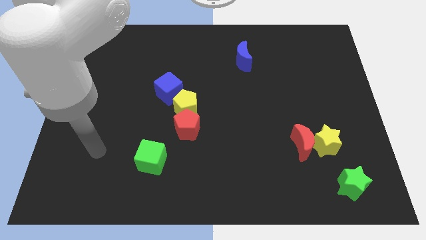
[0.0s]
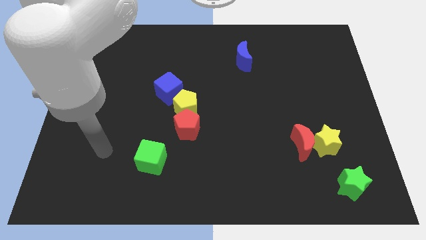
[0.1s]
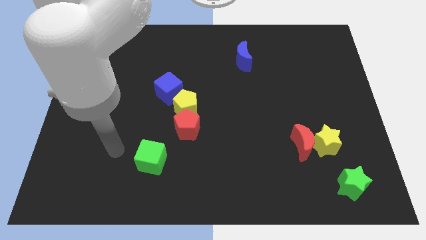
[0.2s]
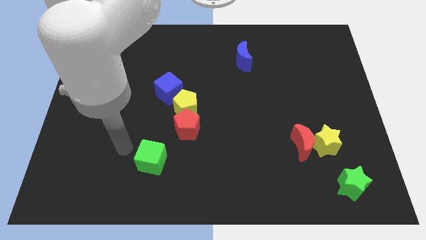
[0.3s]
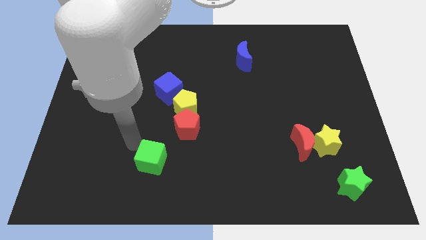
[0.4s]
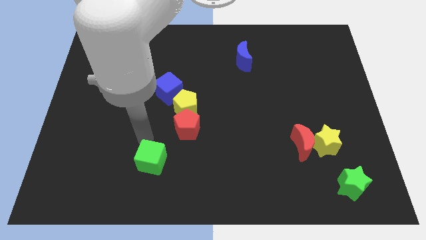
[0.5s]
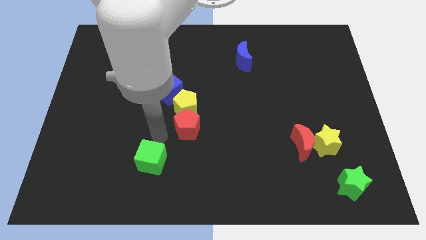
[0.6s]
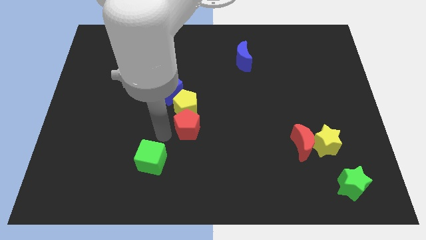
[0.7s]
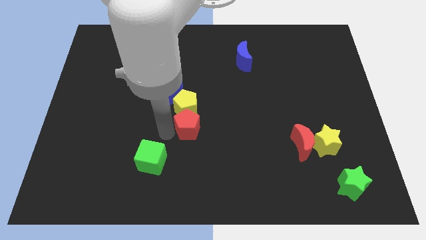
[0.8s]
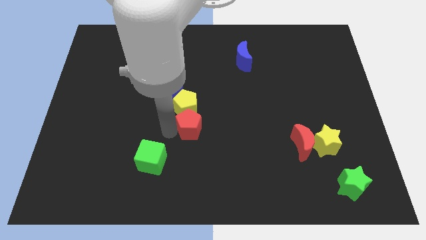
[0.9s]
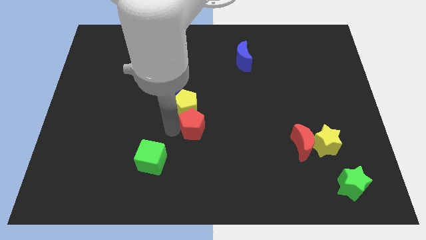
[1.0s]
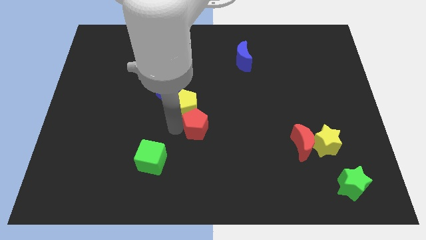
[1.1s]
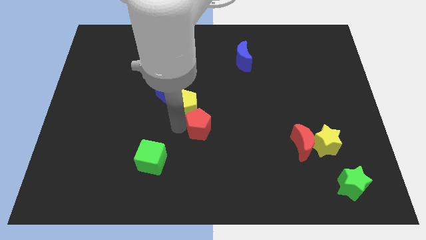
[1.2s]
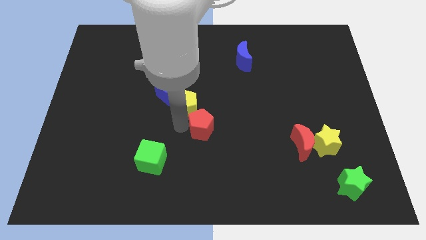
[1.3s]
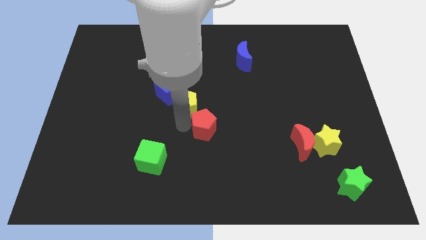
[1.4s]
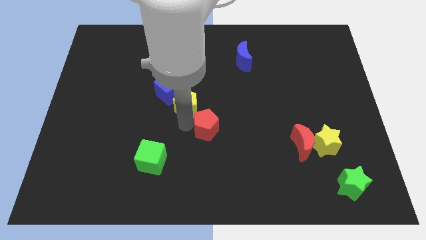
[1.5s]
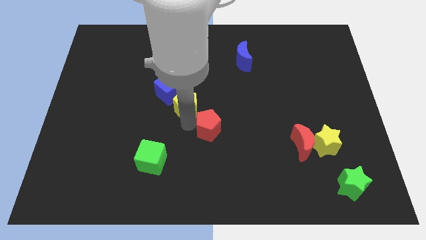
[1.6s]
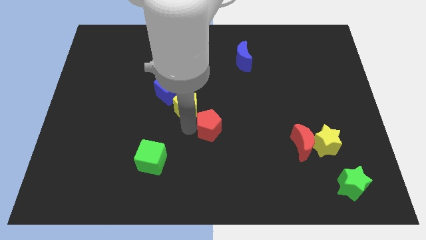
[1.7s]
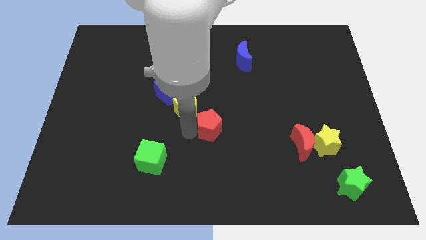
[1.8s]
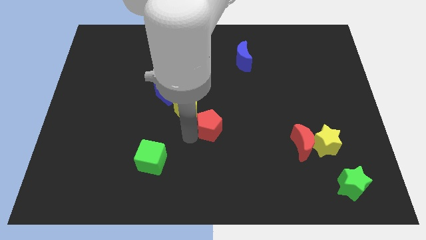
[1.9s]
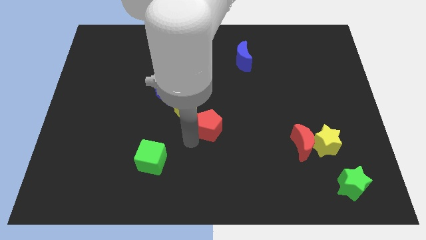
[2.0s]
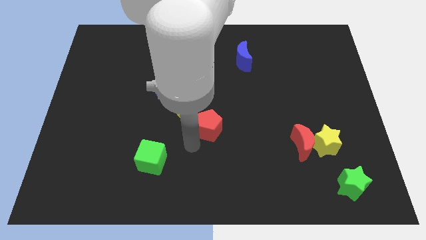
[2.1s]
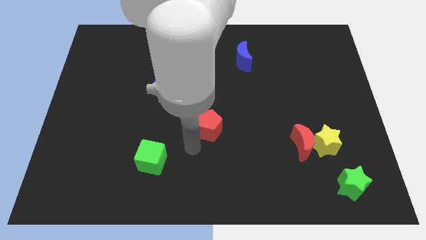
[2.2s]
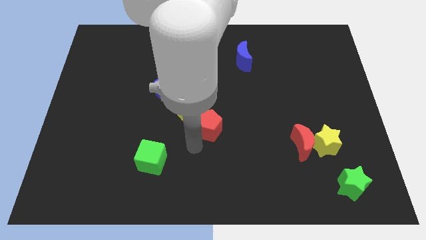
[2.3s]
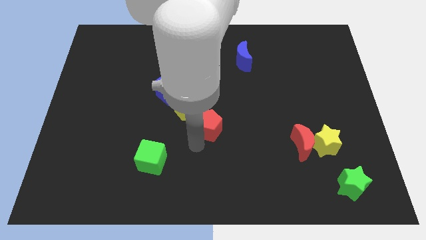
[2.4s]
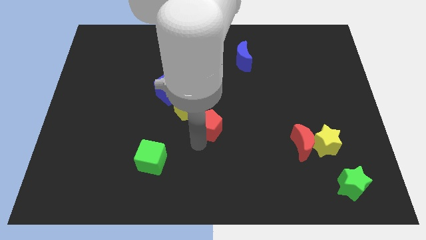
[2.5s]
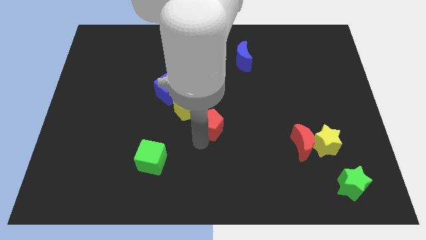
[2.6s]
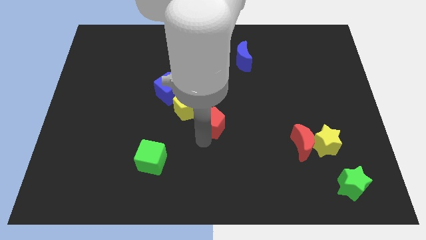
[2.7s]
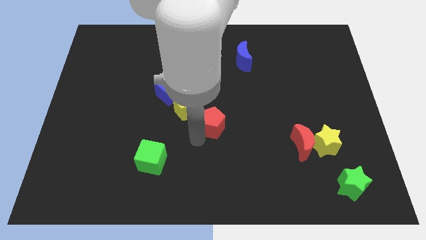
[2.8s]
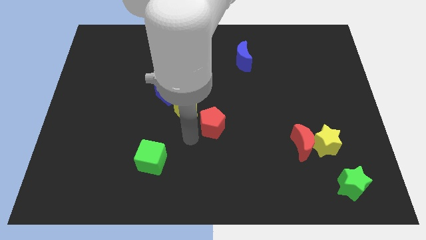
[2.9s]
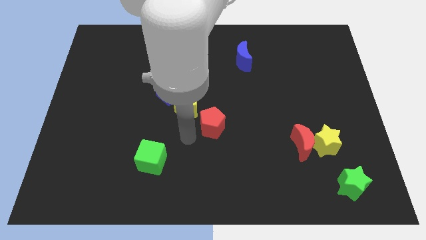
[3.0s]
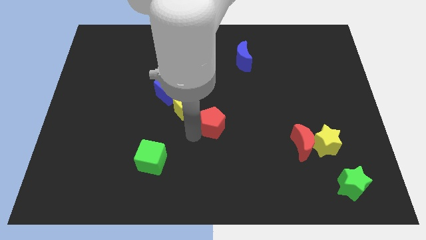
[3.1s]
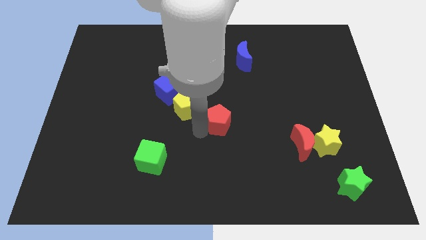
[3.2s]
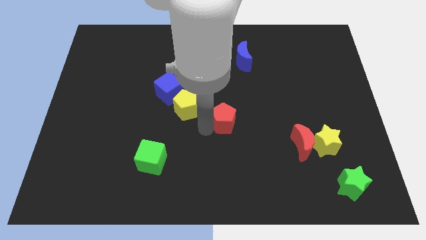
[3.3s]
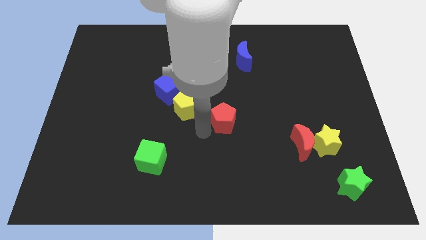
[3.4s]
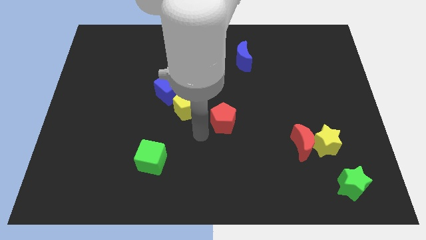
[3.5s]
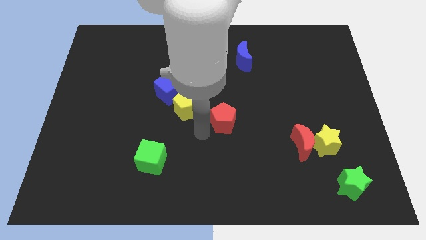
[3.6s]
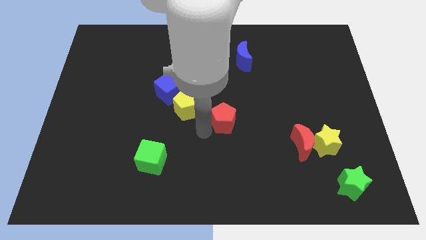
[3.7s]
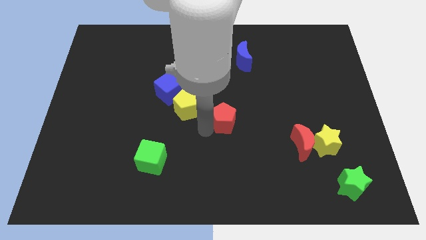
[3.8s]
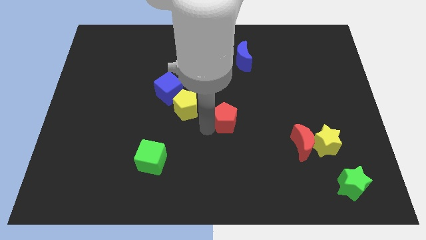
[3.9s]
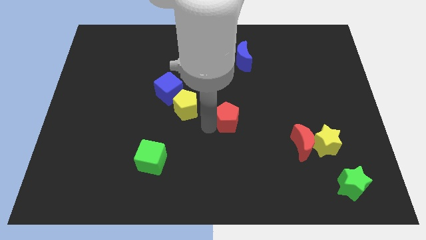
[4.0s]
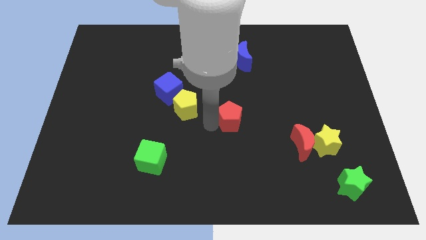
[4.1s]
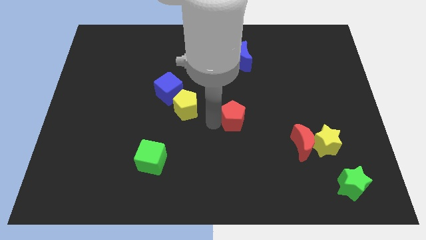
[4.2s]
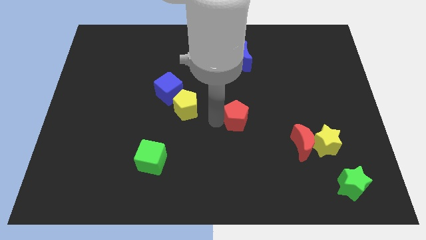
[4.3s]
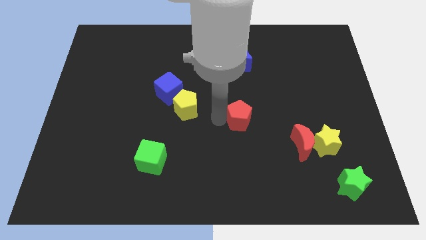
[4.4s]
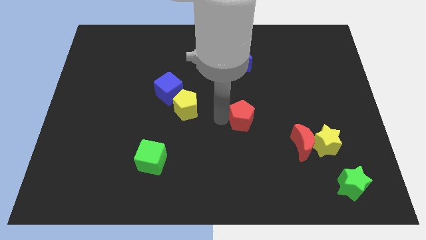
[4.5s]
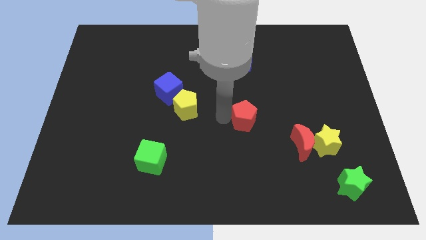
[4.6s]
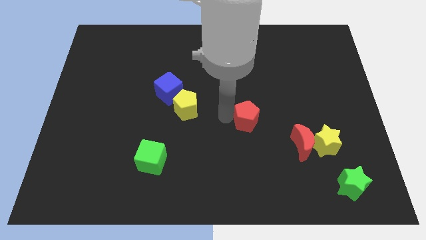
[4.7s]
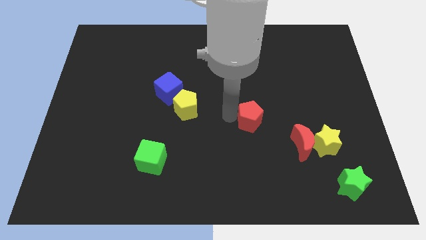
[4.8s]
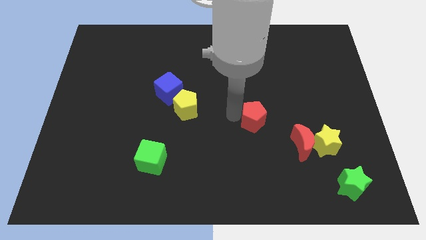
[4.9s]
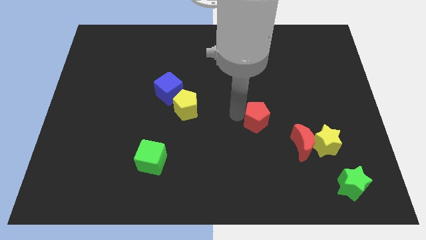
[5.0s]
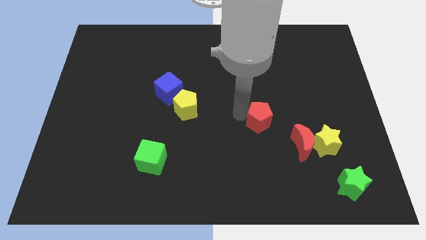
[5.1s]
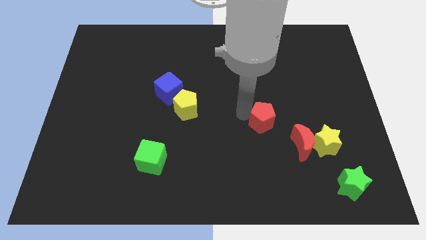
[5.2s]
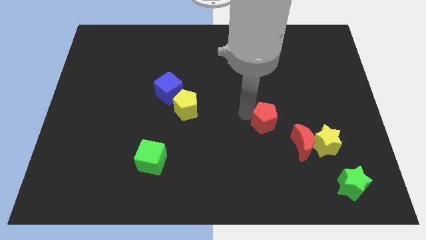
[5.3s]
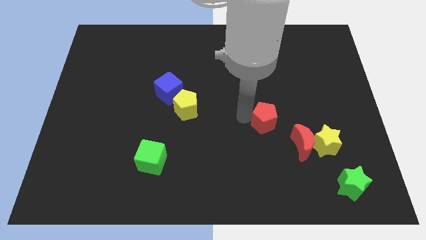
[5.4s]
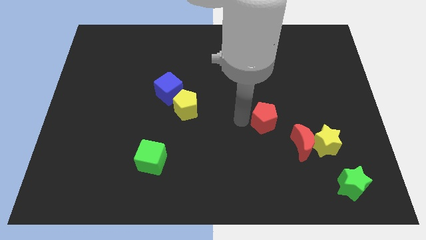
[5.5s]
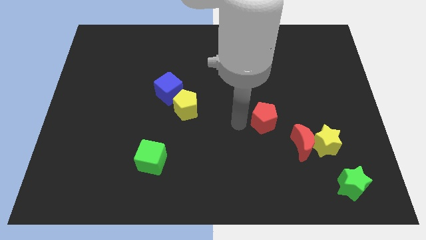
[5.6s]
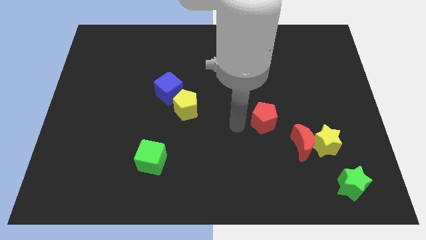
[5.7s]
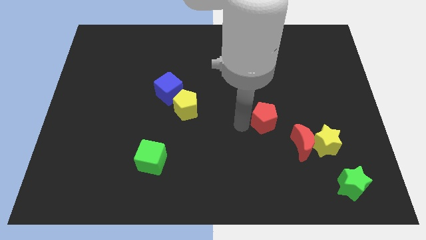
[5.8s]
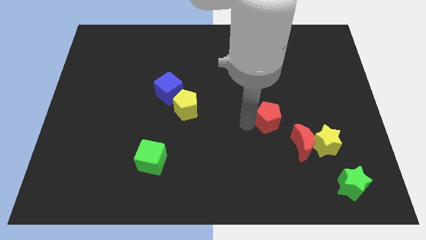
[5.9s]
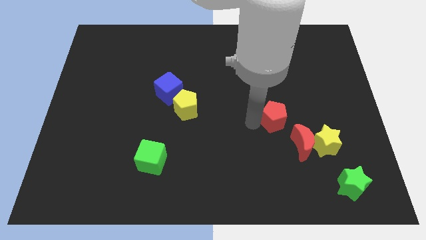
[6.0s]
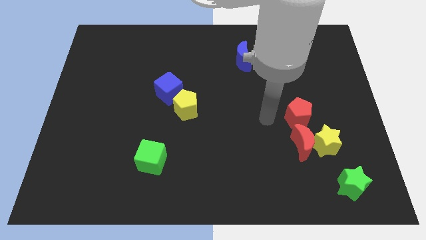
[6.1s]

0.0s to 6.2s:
slide the red pentagon to the right

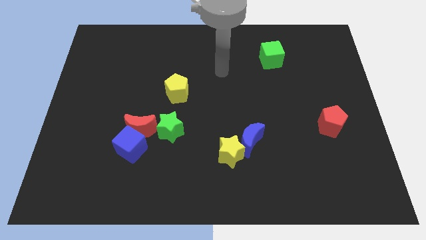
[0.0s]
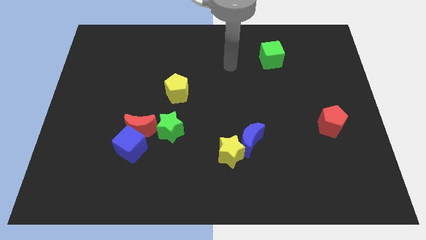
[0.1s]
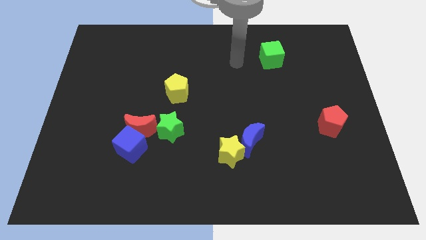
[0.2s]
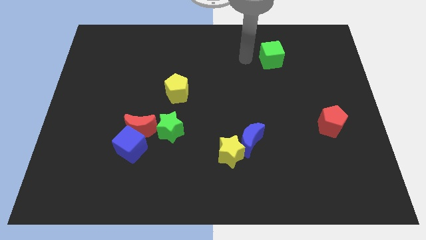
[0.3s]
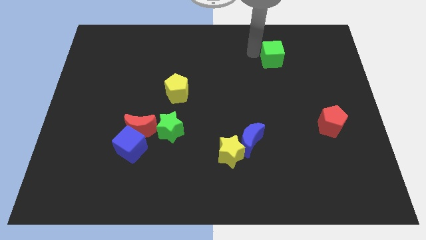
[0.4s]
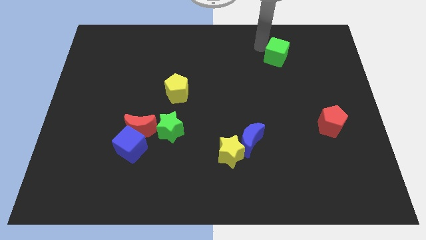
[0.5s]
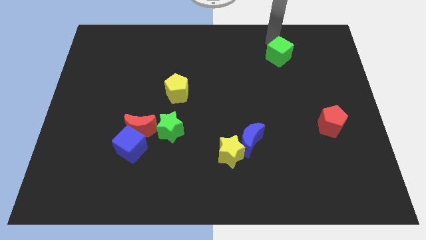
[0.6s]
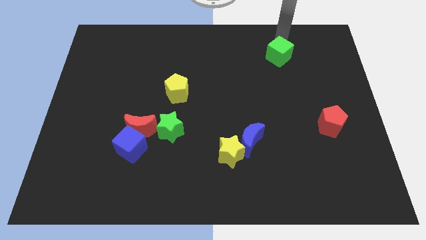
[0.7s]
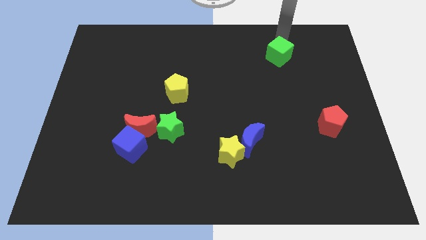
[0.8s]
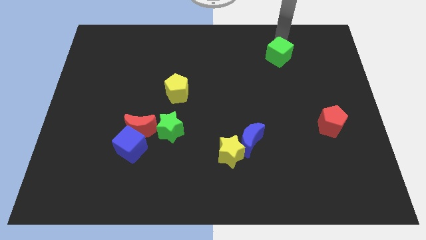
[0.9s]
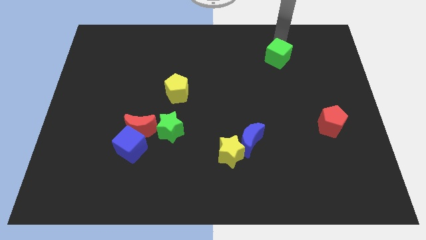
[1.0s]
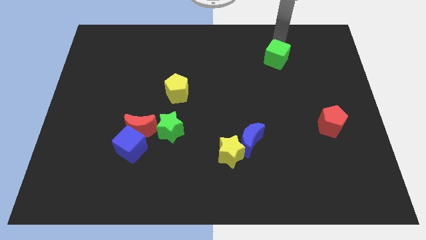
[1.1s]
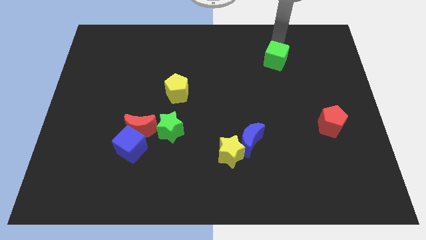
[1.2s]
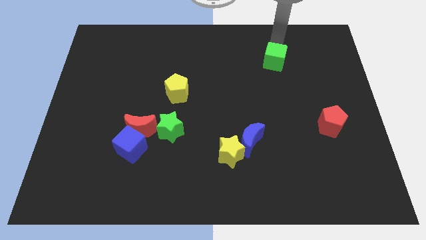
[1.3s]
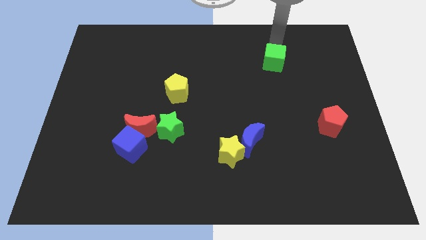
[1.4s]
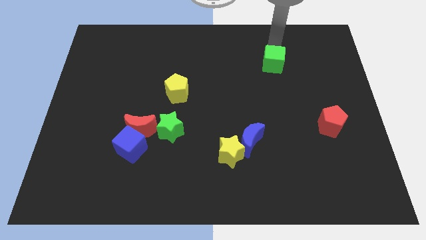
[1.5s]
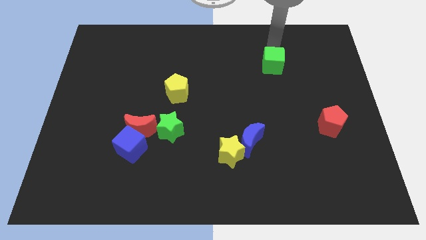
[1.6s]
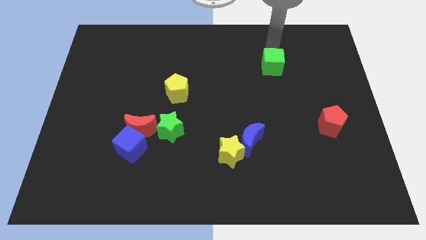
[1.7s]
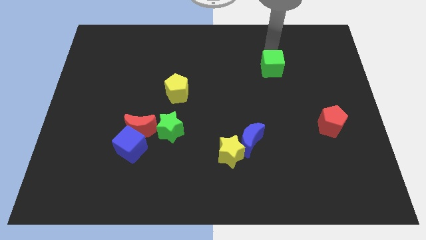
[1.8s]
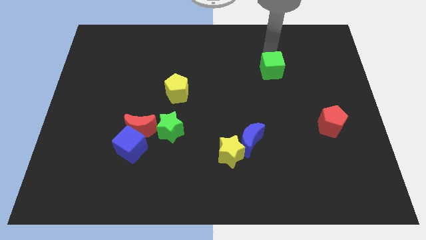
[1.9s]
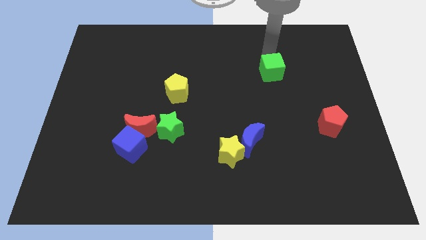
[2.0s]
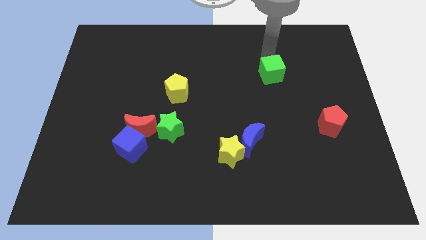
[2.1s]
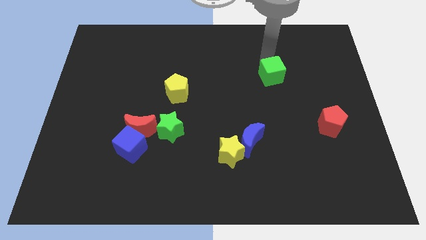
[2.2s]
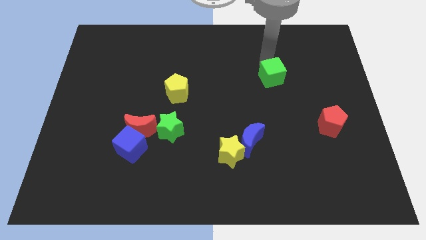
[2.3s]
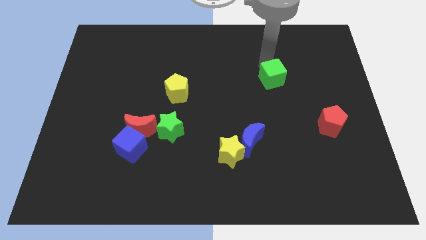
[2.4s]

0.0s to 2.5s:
slightly push the green cube downwards
